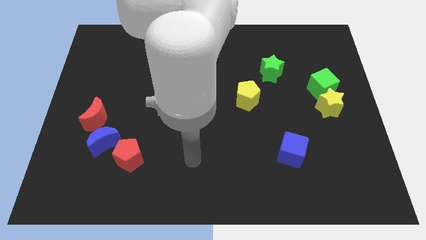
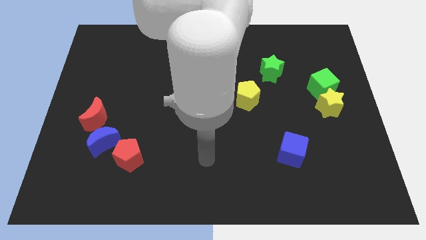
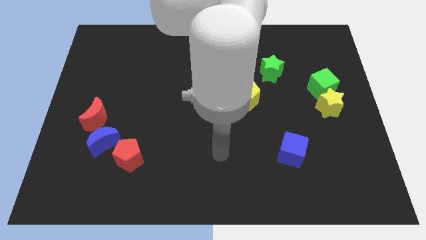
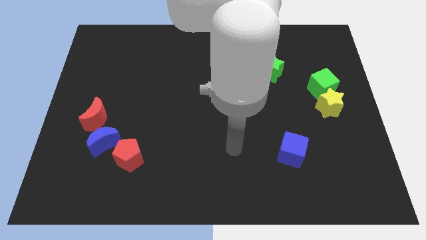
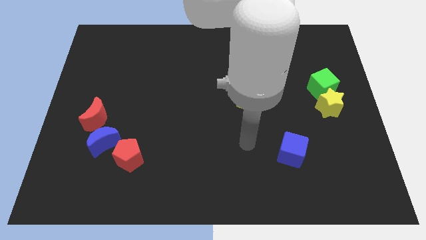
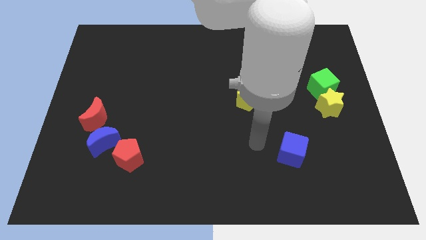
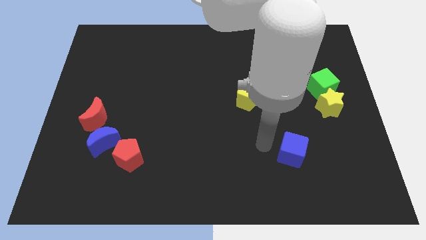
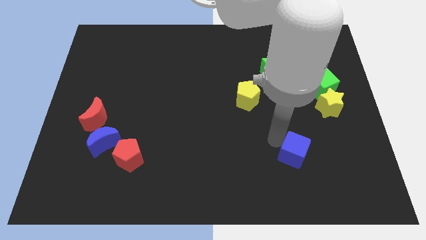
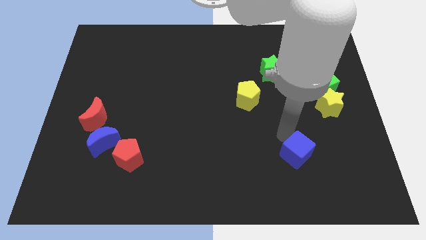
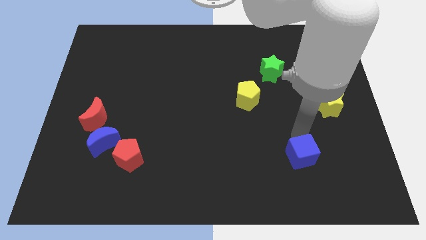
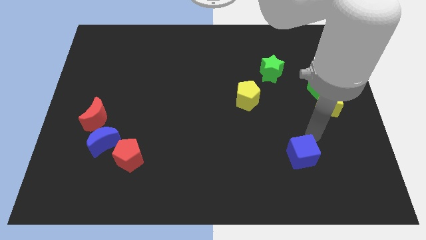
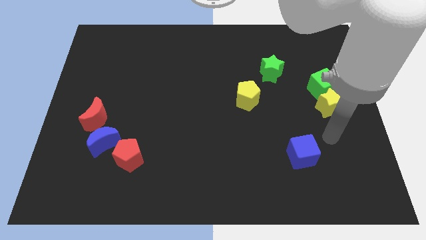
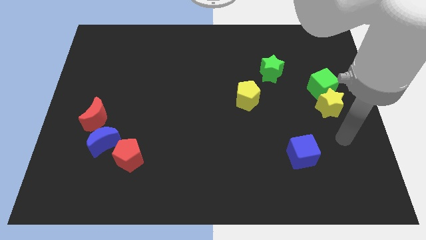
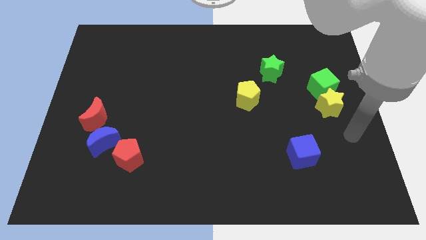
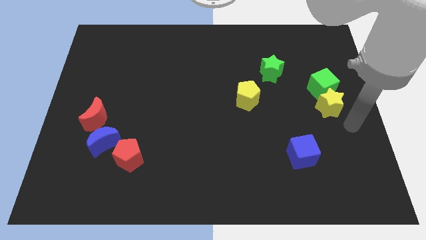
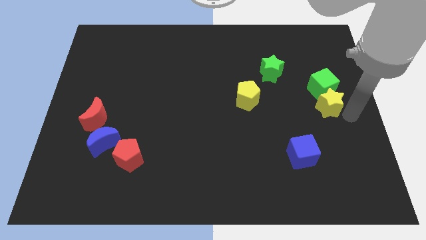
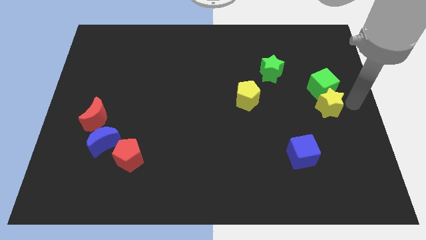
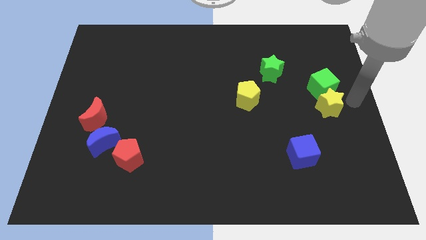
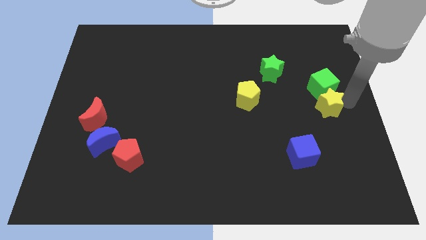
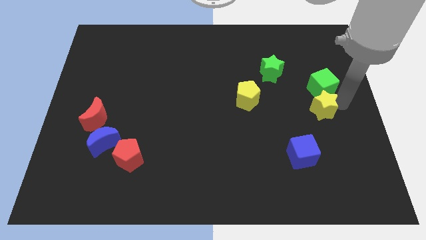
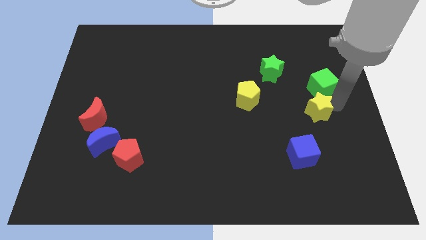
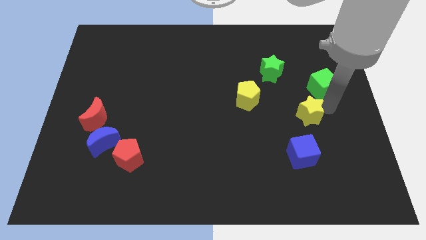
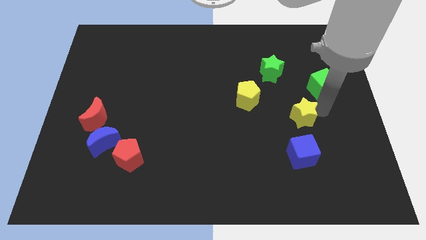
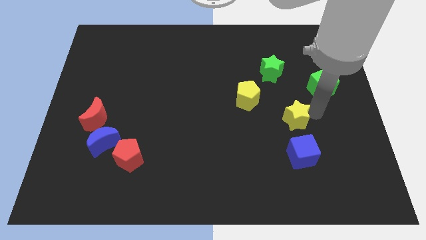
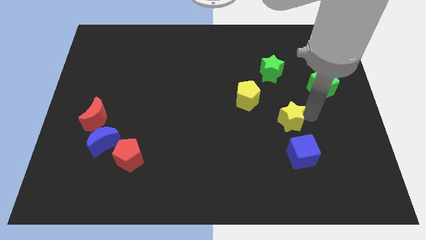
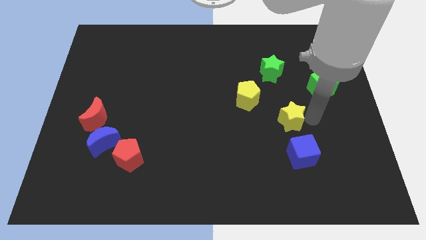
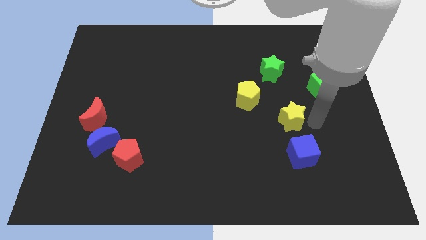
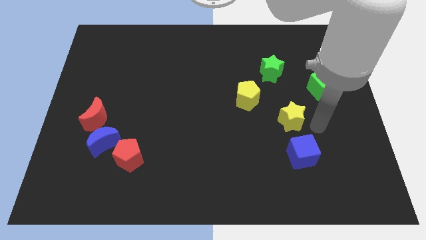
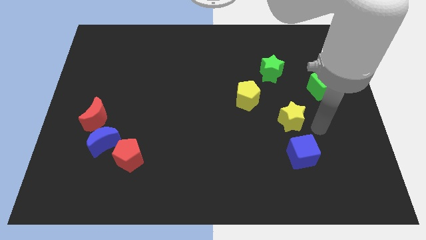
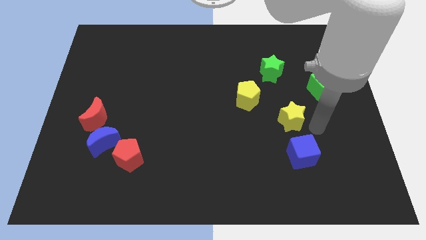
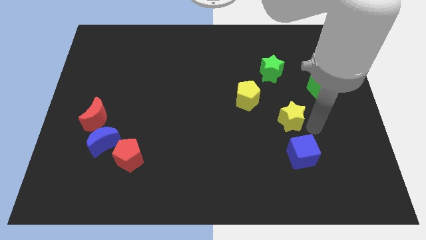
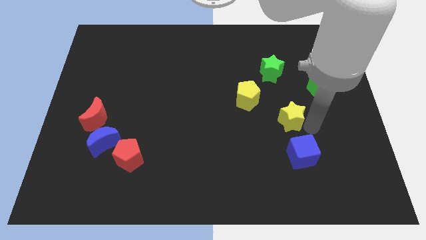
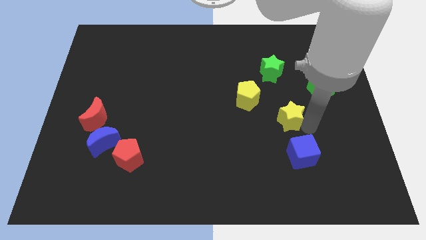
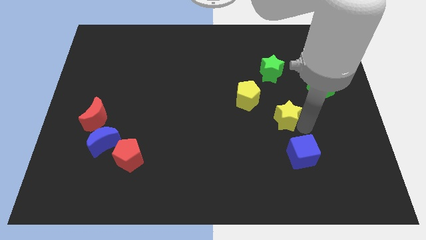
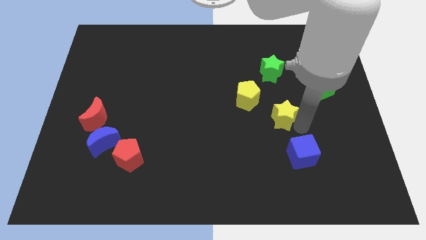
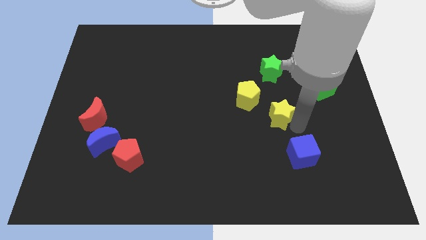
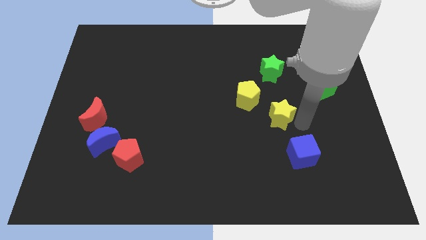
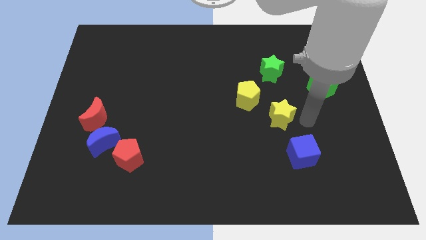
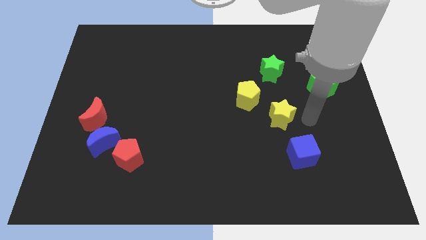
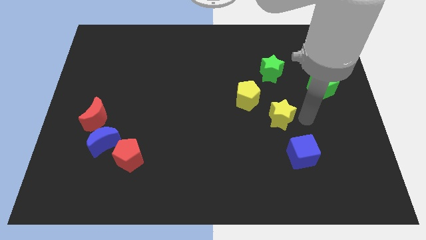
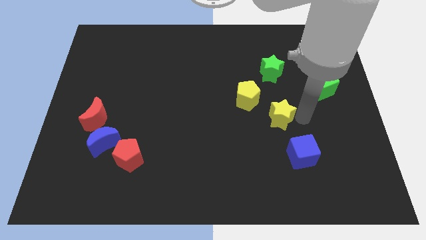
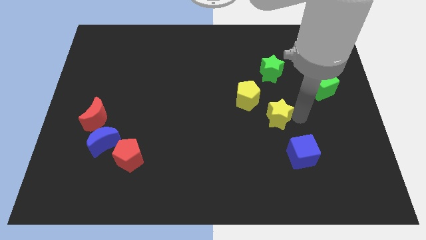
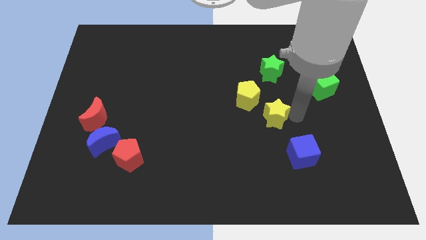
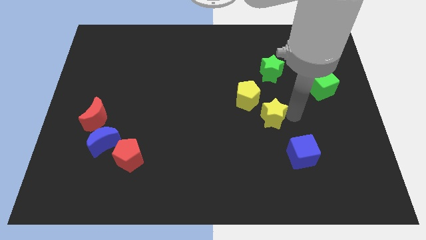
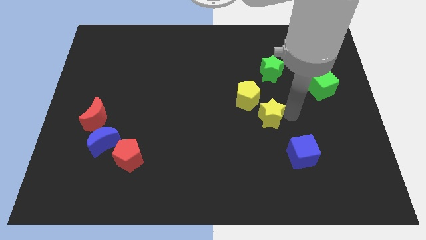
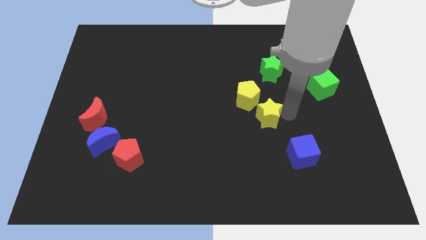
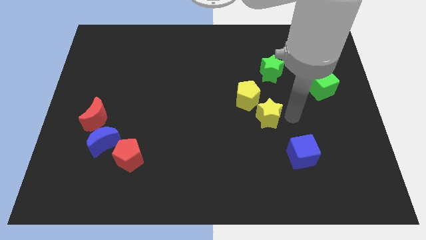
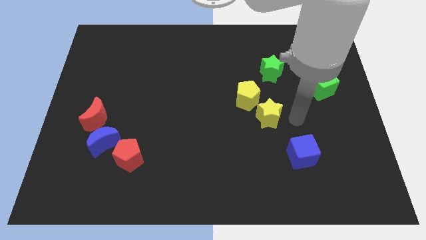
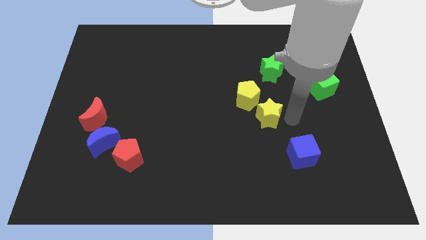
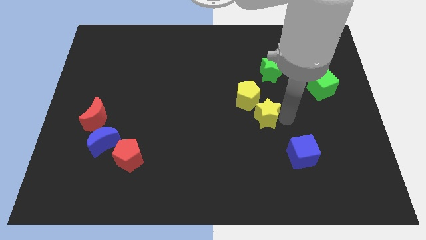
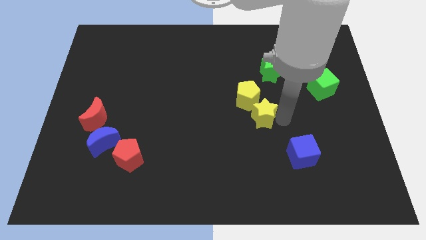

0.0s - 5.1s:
move the yellow star to the middle

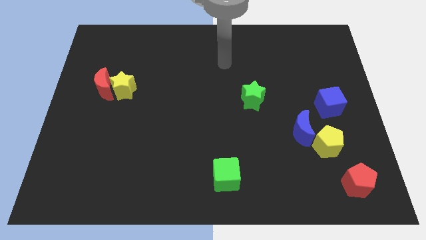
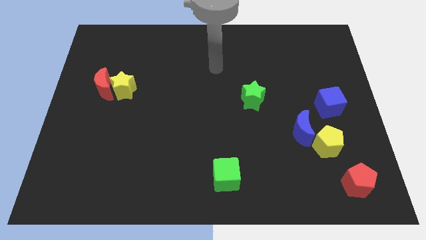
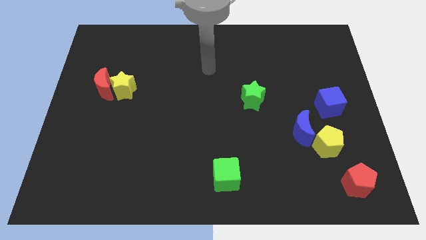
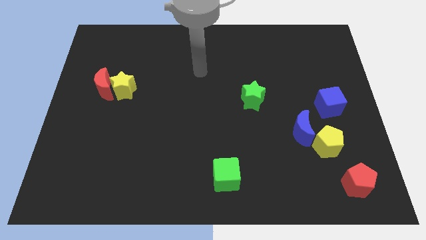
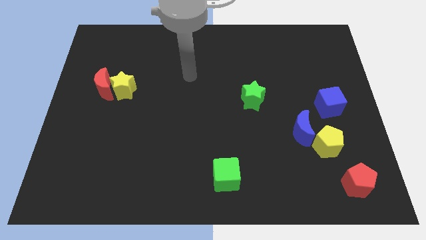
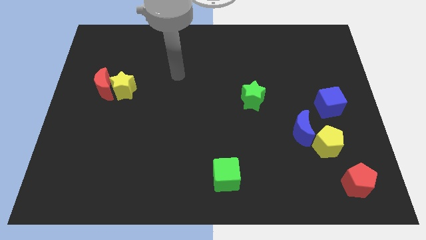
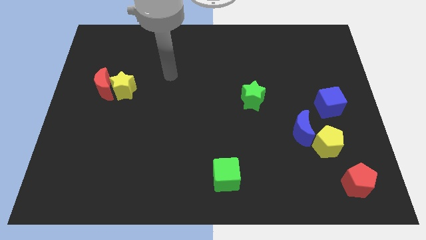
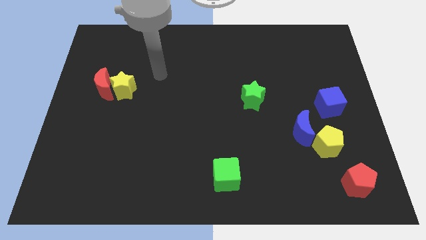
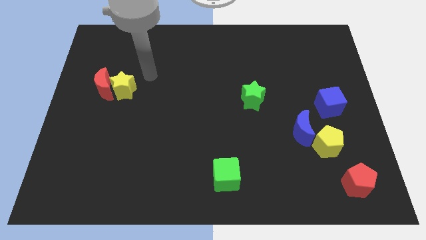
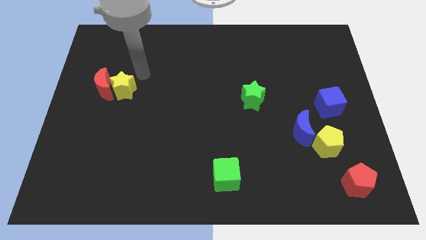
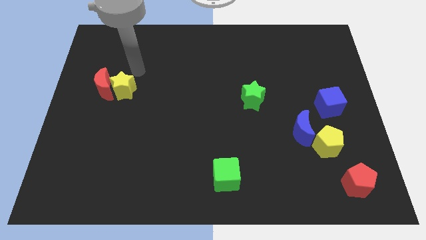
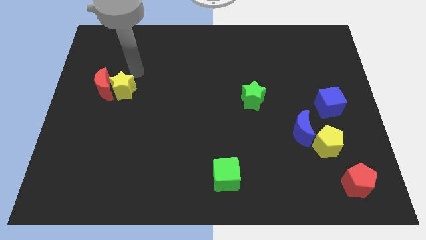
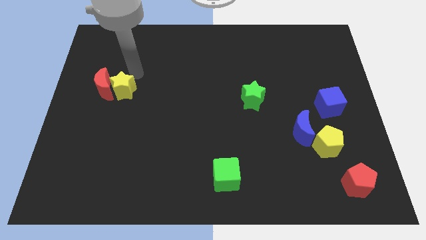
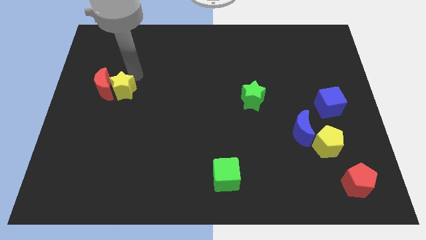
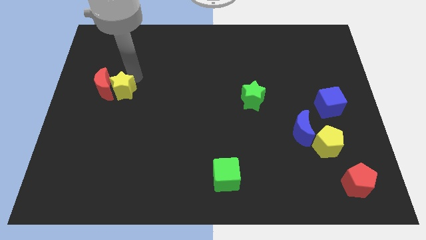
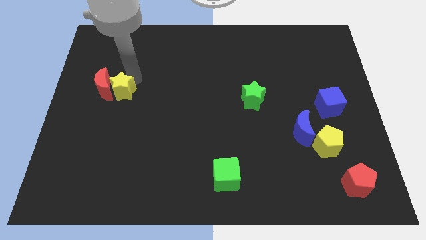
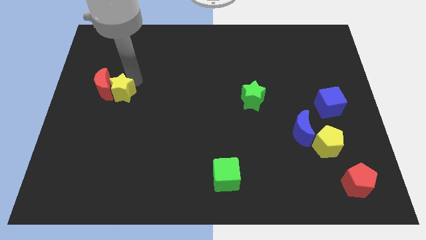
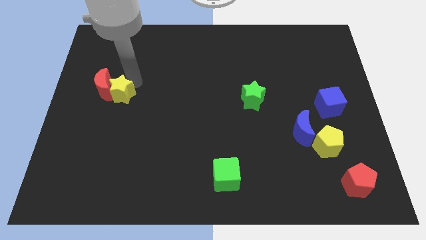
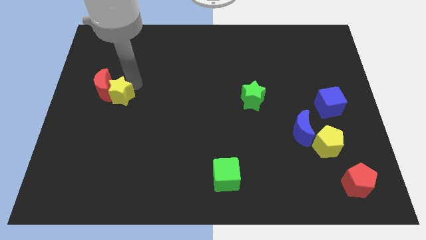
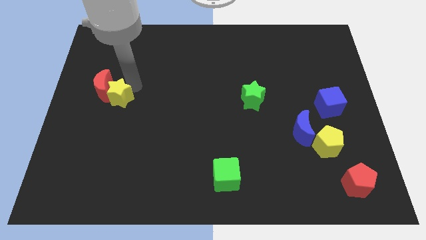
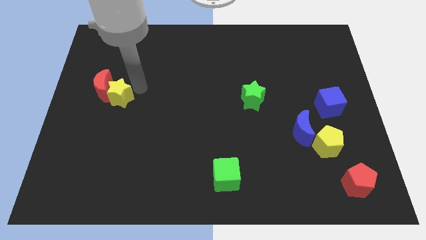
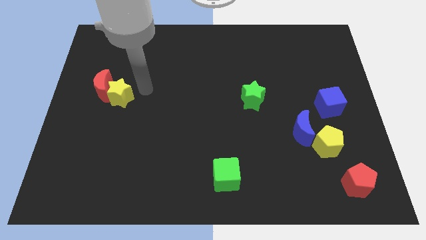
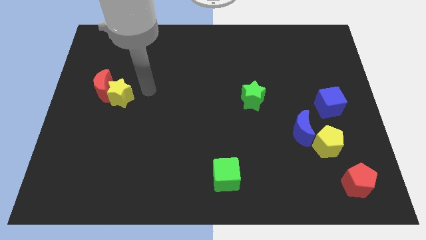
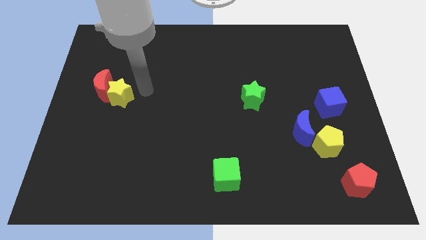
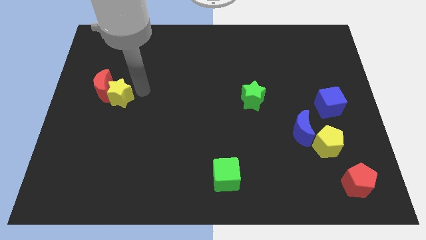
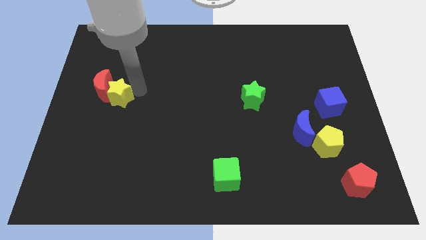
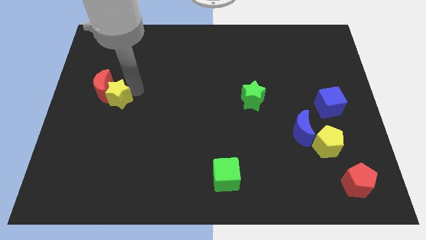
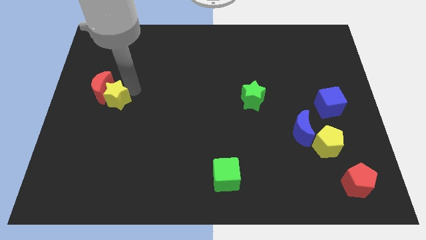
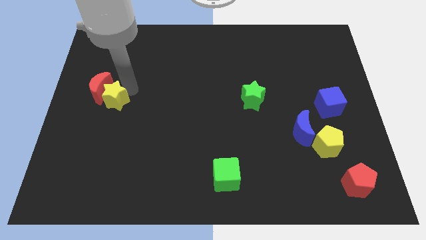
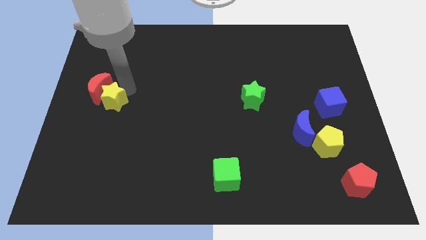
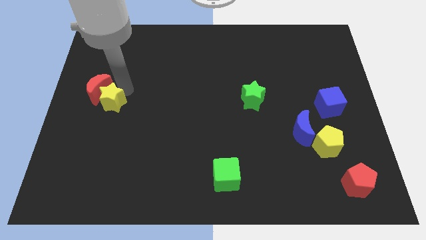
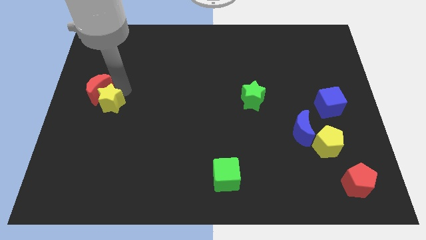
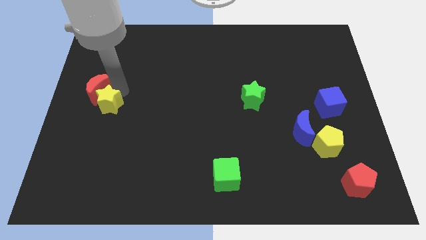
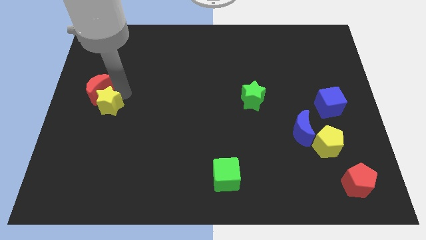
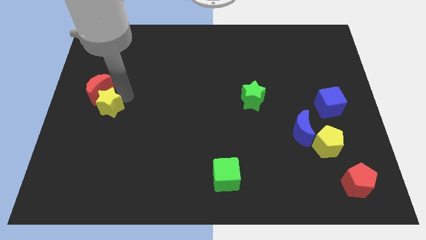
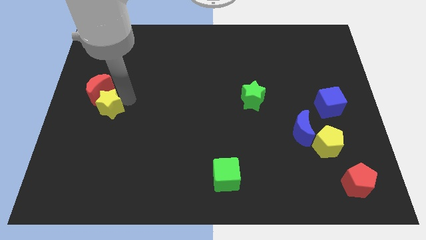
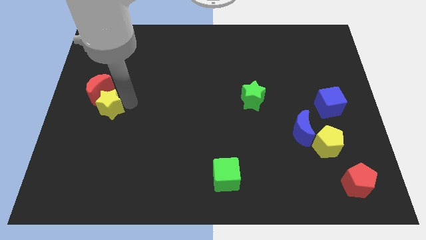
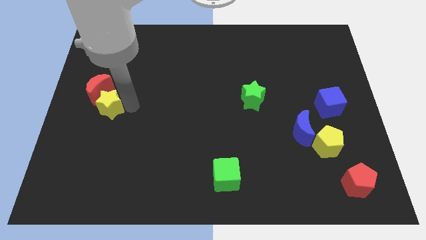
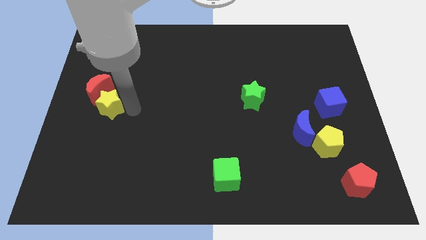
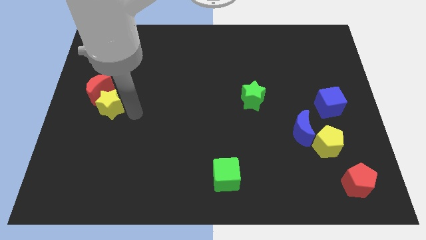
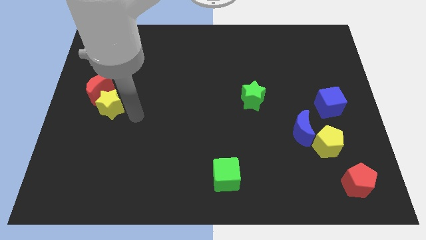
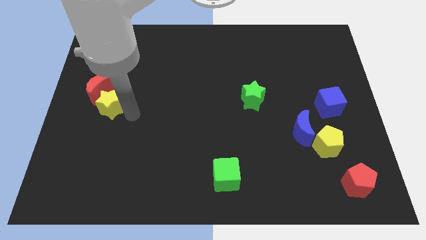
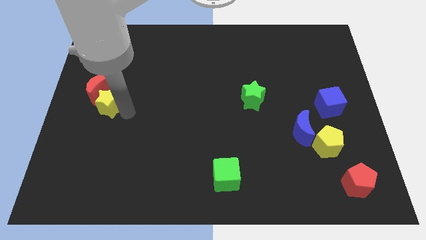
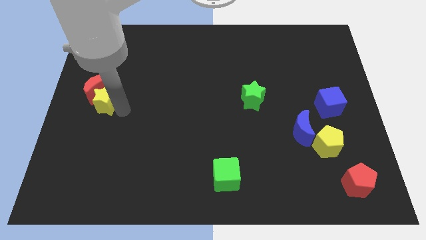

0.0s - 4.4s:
push the yellow star to the left side
